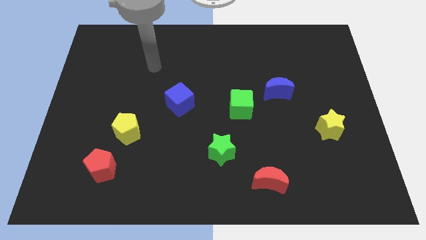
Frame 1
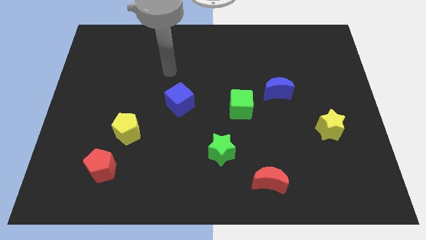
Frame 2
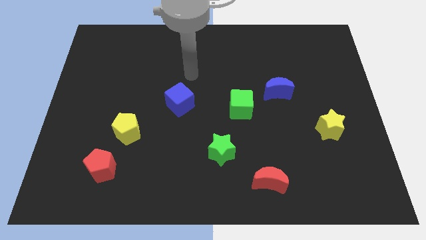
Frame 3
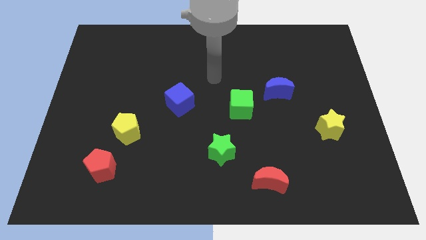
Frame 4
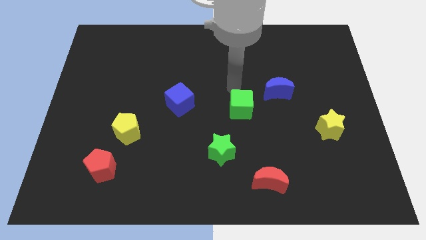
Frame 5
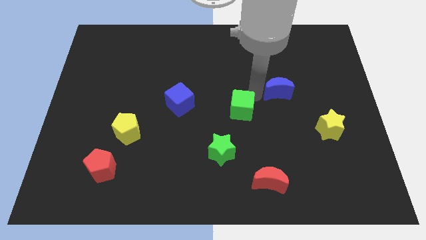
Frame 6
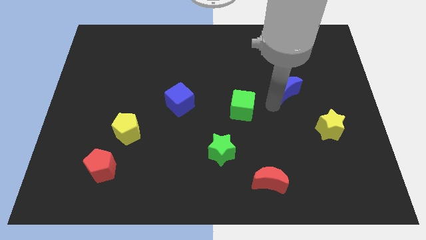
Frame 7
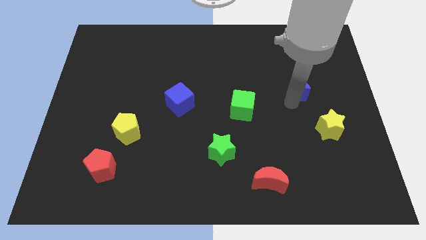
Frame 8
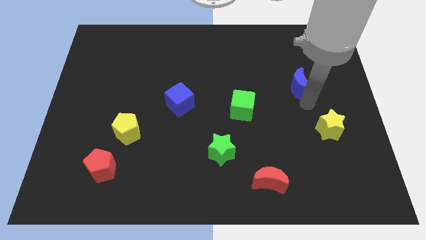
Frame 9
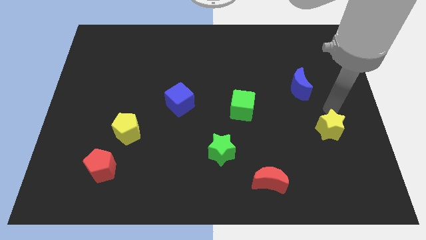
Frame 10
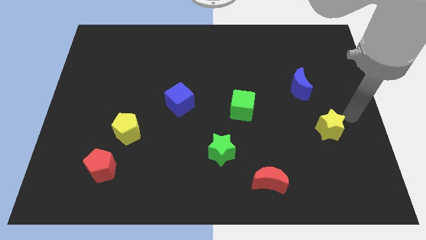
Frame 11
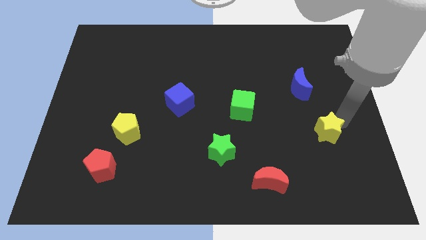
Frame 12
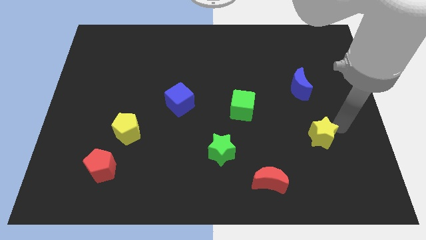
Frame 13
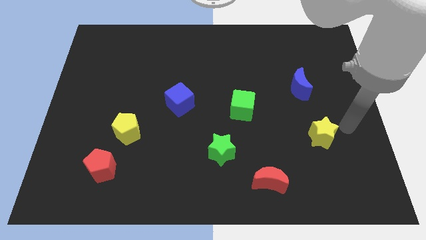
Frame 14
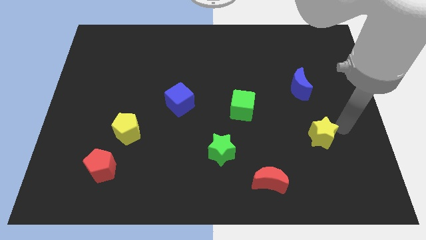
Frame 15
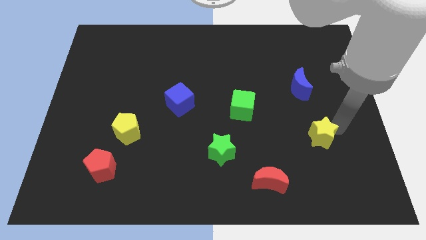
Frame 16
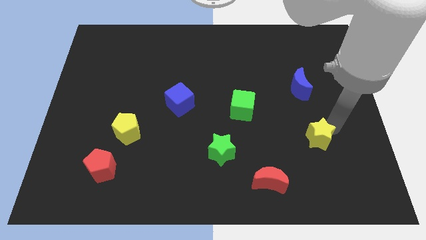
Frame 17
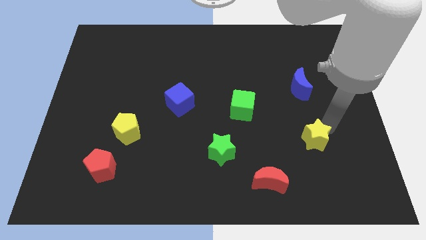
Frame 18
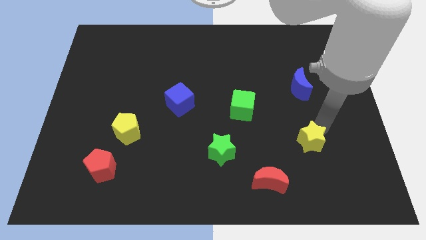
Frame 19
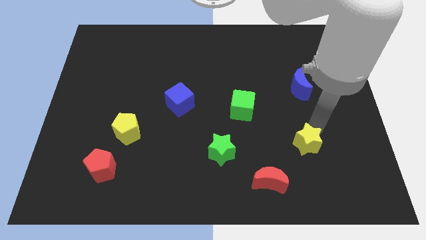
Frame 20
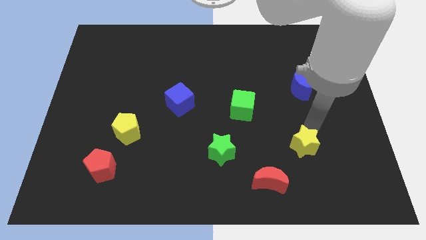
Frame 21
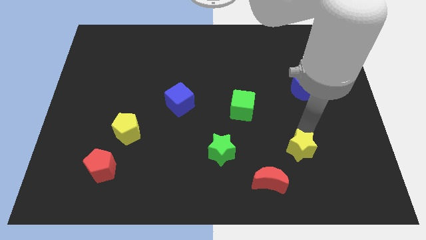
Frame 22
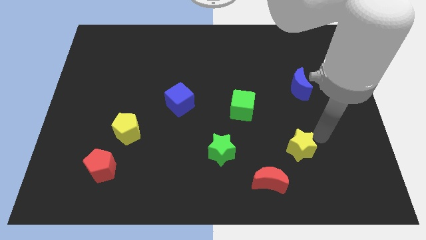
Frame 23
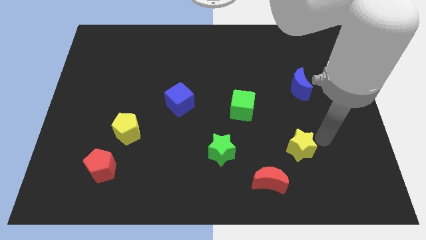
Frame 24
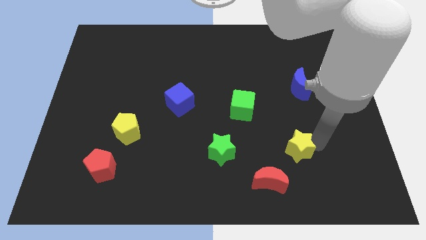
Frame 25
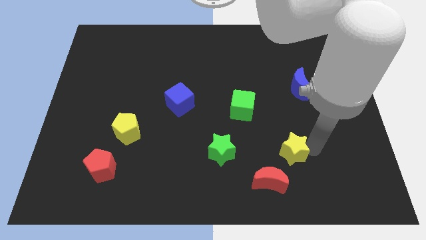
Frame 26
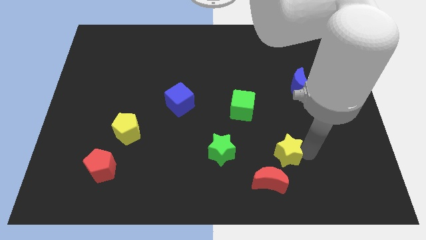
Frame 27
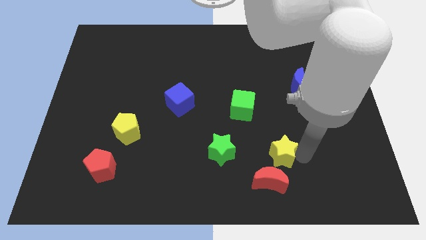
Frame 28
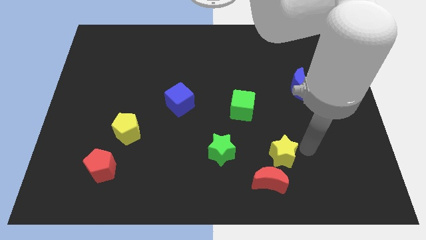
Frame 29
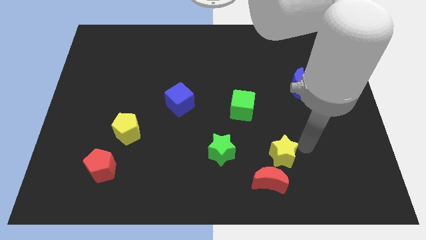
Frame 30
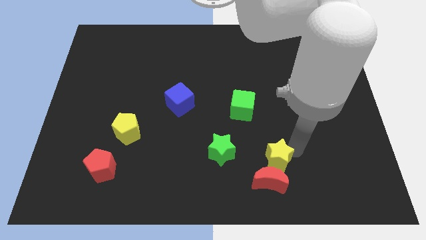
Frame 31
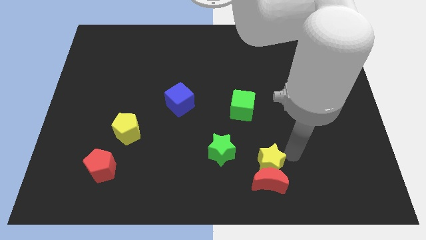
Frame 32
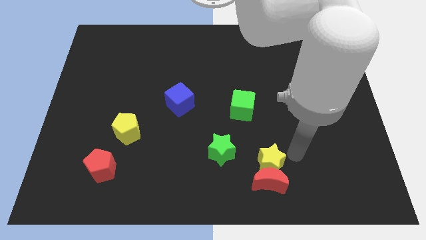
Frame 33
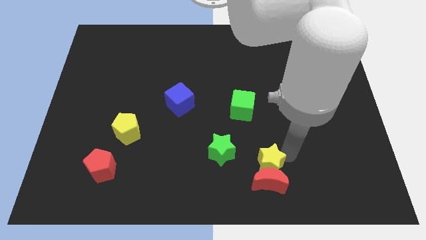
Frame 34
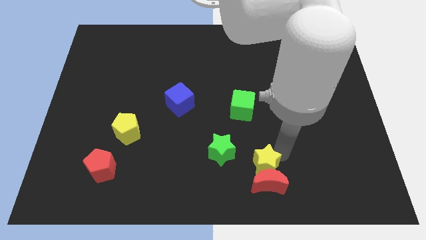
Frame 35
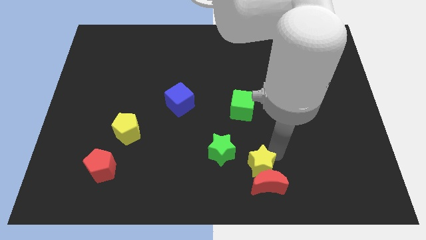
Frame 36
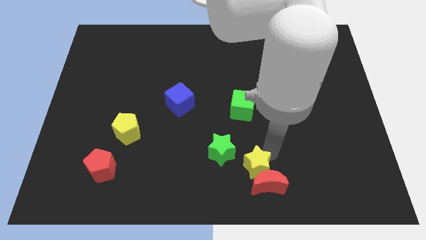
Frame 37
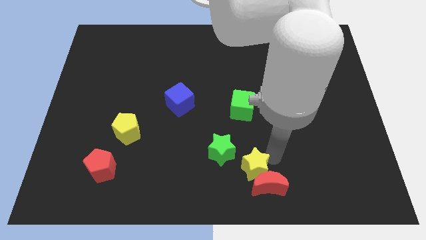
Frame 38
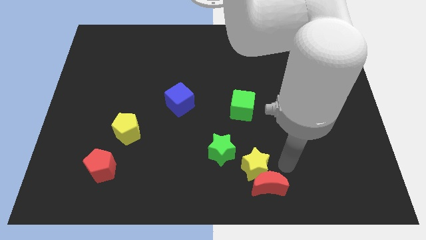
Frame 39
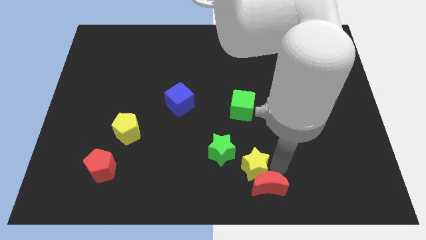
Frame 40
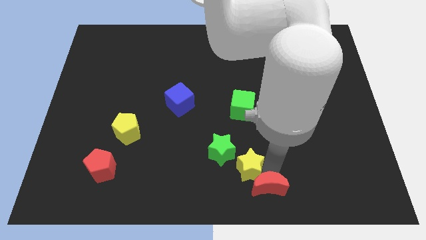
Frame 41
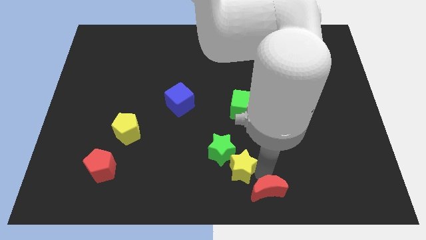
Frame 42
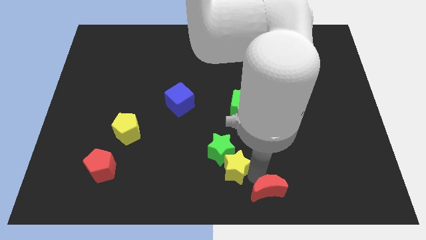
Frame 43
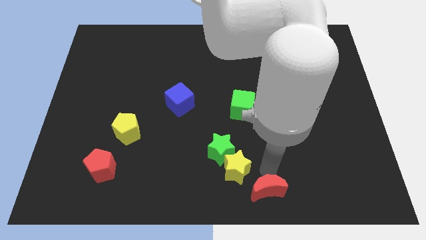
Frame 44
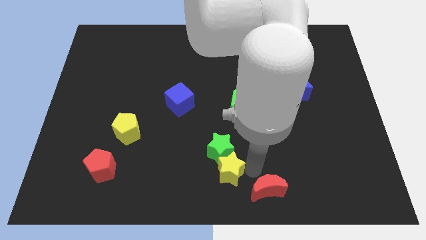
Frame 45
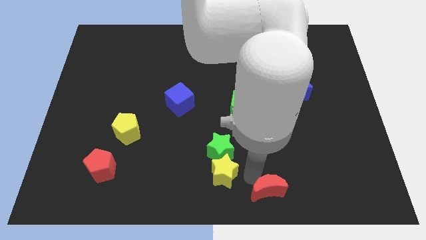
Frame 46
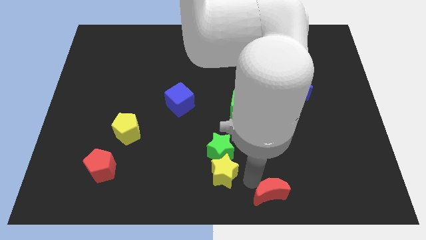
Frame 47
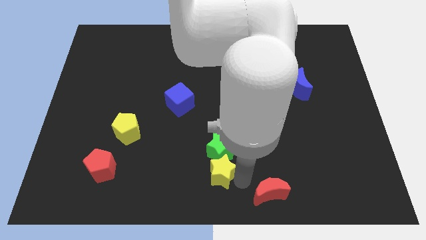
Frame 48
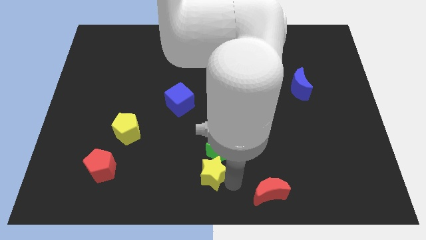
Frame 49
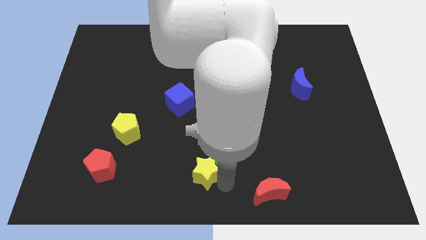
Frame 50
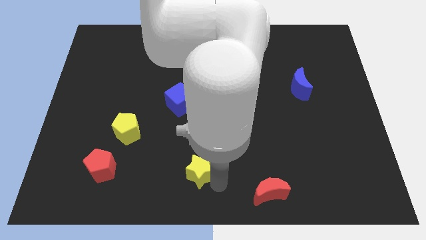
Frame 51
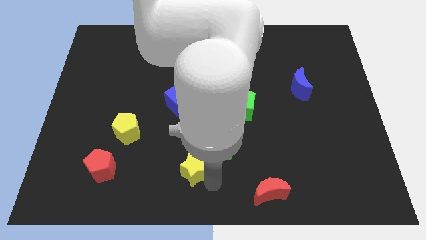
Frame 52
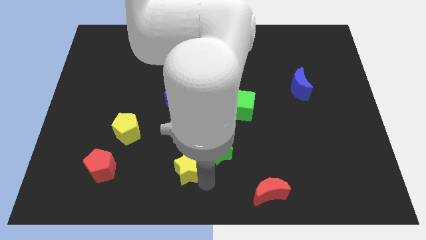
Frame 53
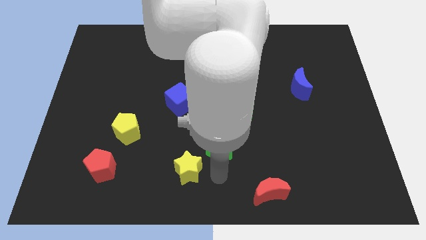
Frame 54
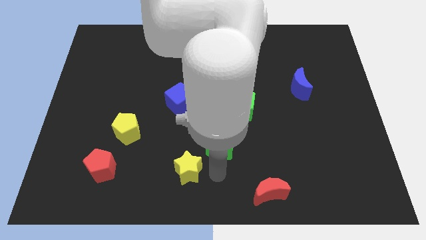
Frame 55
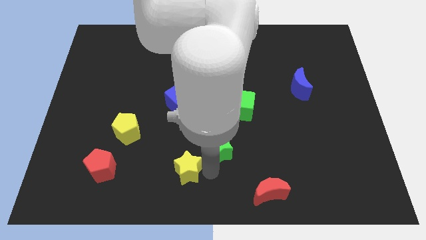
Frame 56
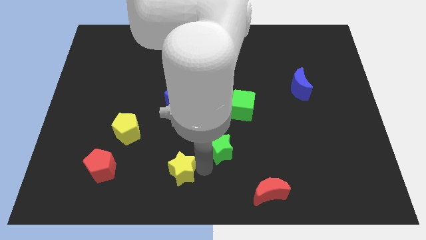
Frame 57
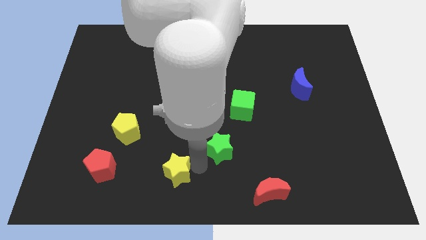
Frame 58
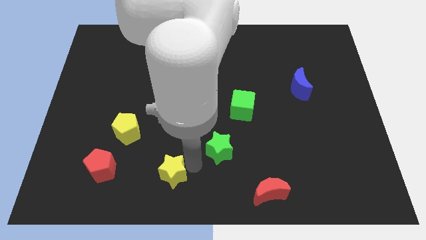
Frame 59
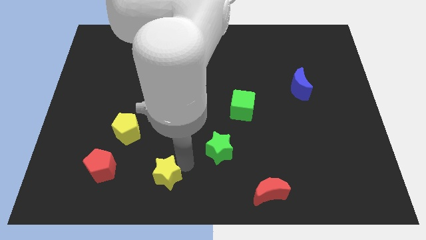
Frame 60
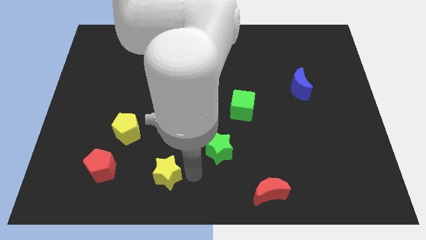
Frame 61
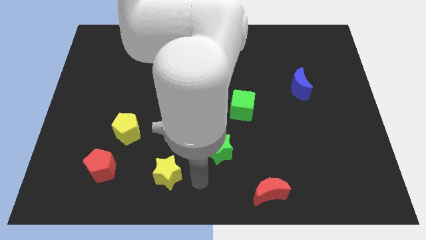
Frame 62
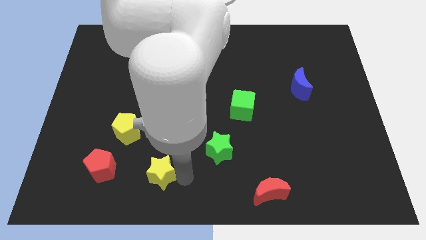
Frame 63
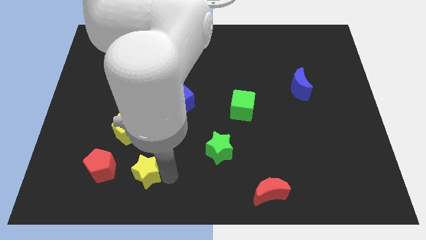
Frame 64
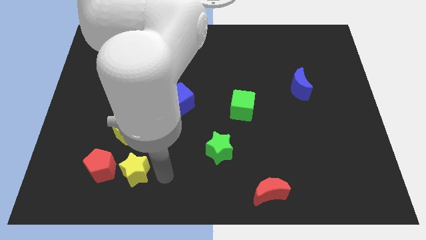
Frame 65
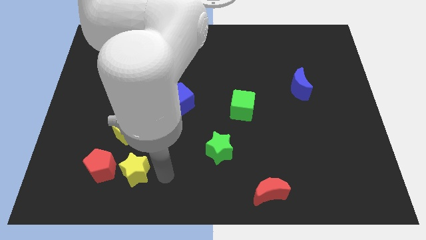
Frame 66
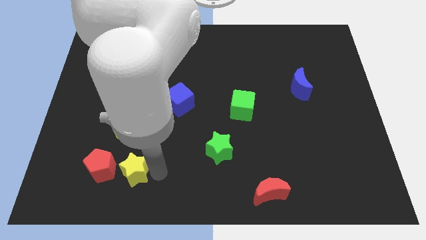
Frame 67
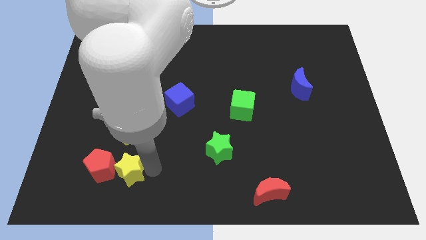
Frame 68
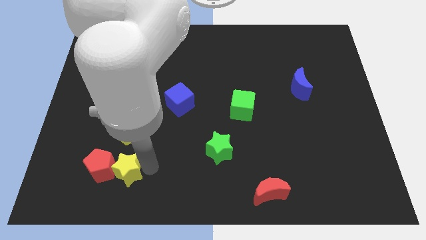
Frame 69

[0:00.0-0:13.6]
move the yellow star next to the red pentagon
